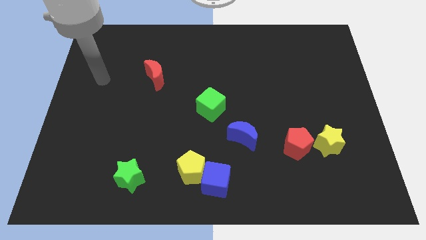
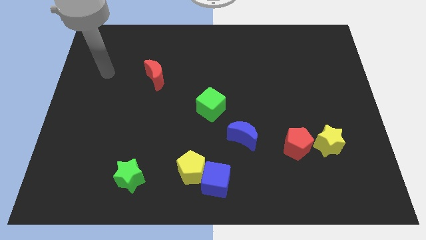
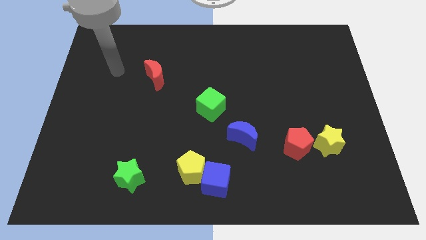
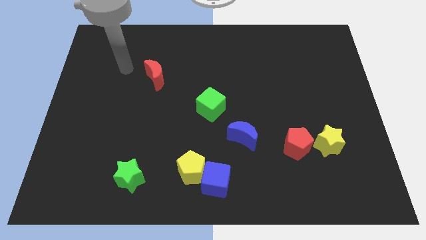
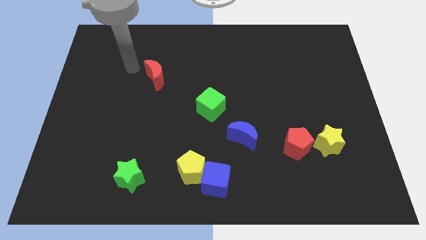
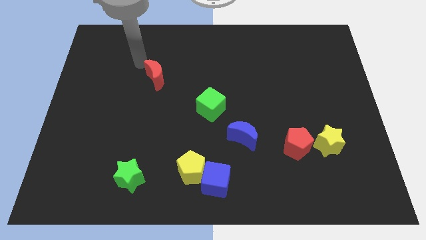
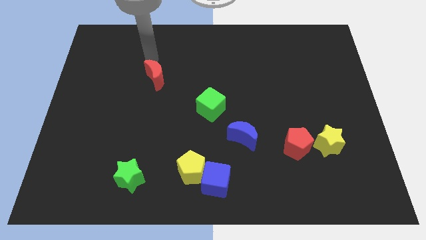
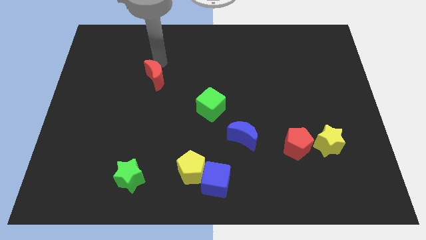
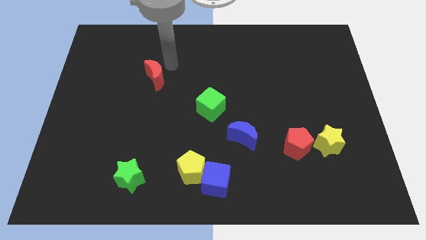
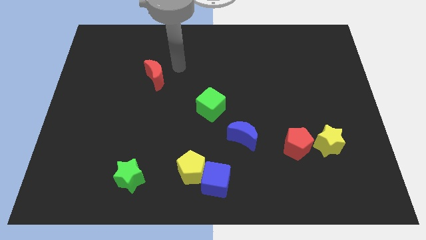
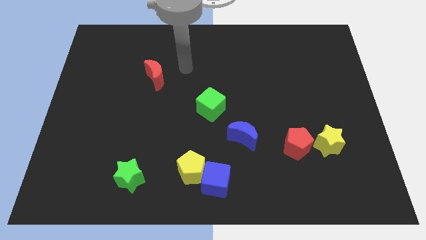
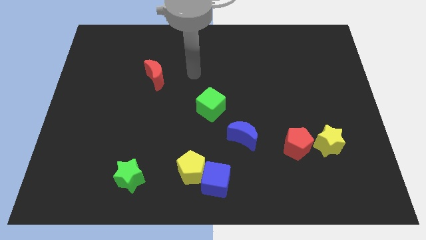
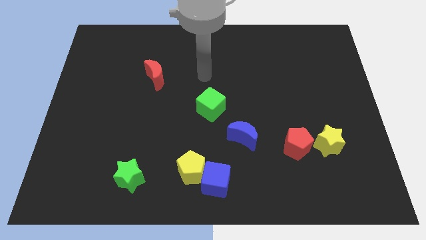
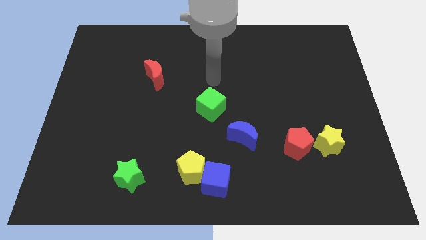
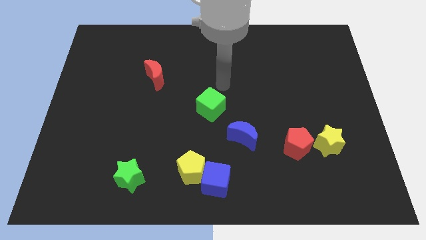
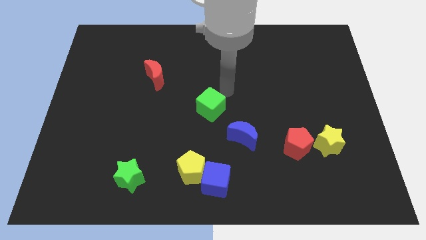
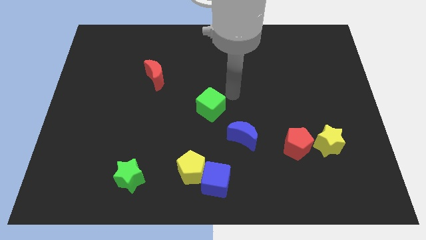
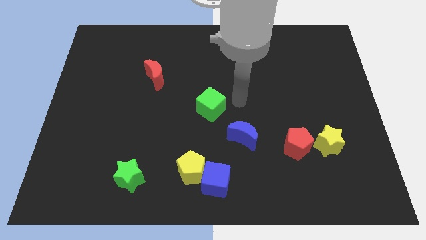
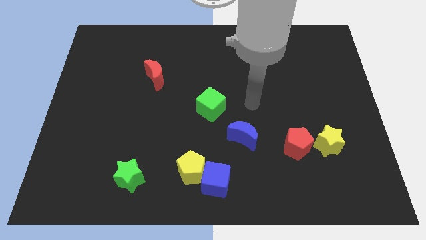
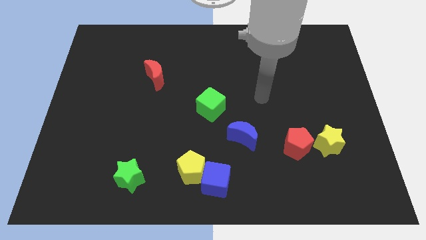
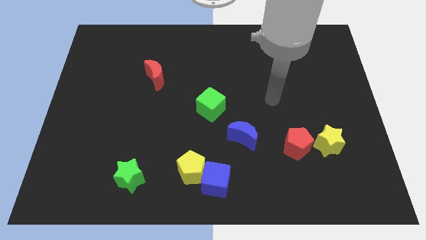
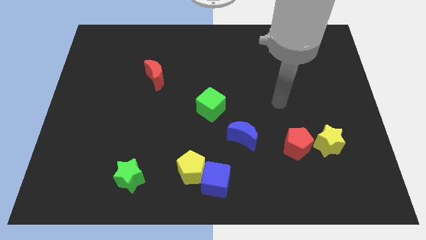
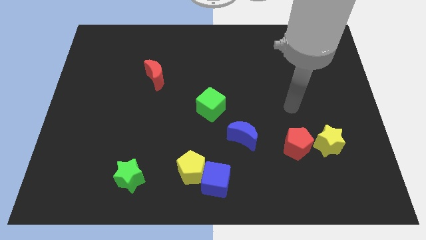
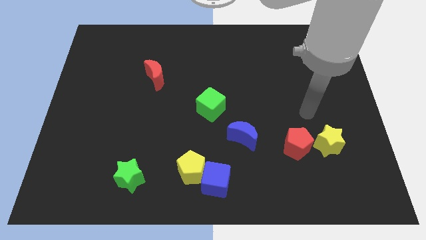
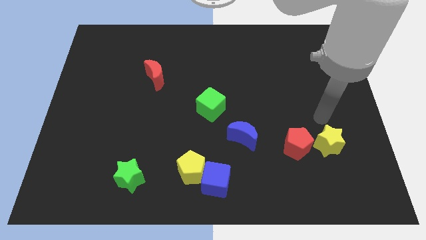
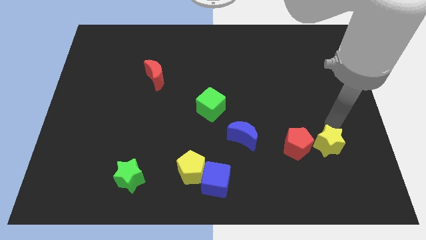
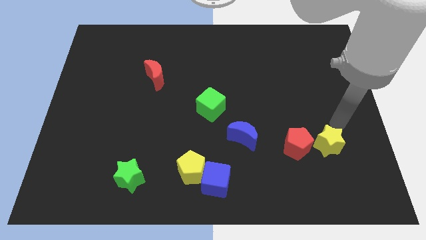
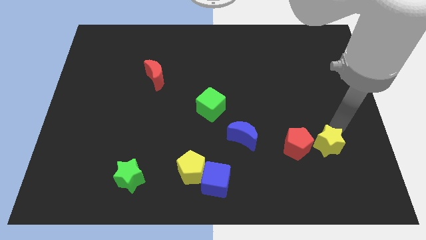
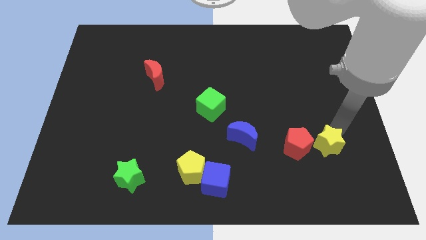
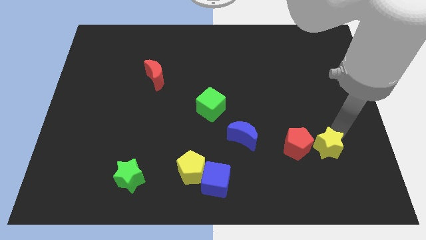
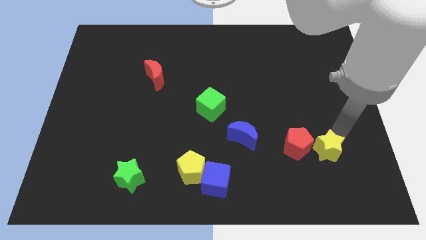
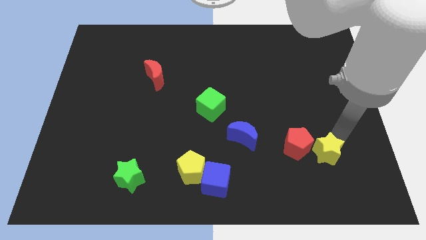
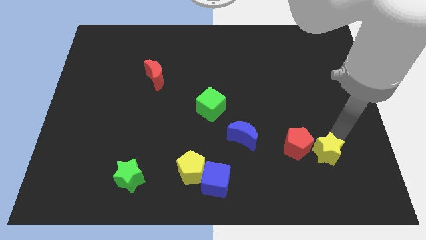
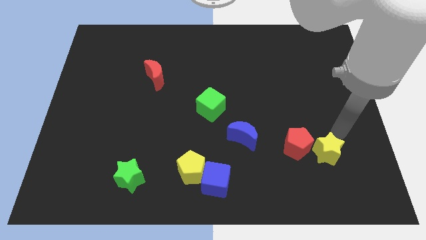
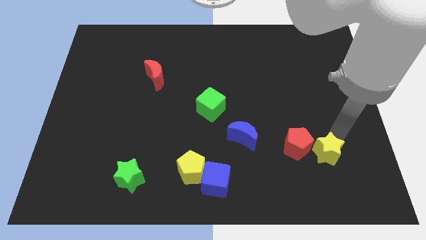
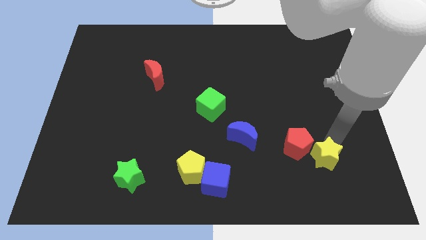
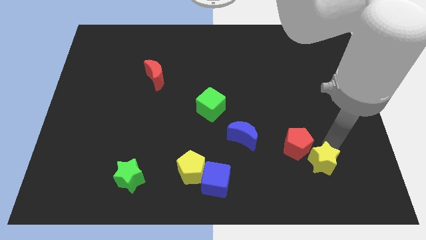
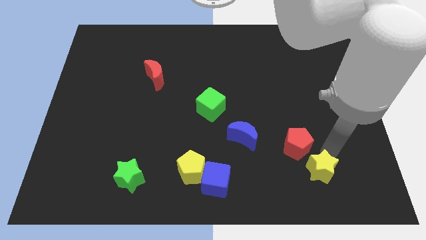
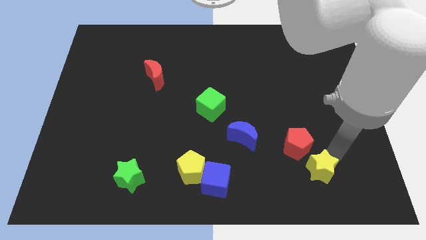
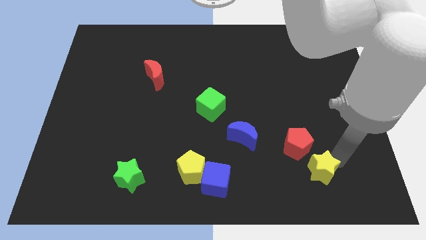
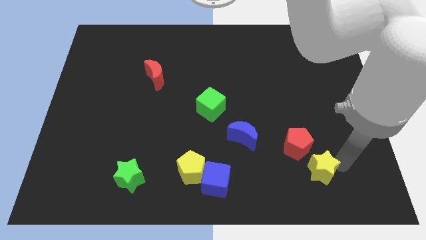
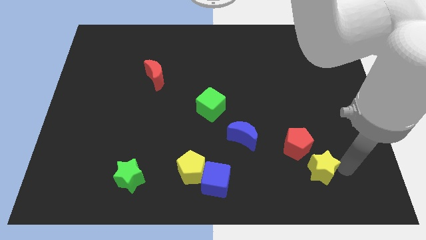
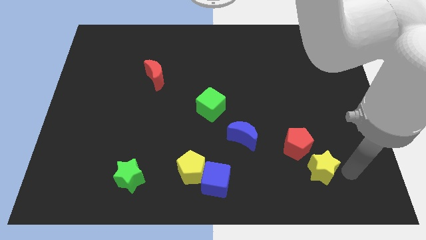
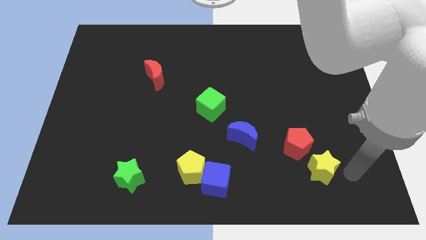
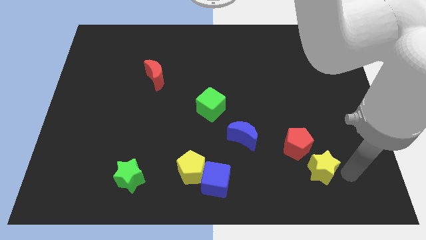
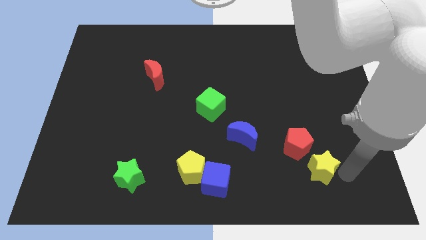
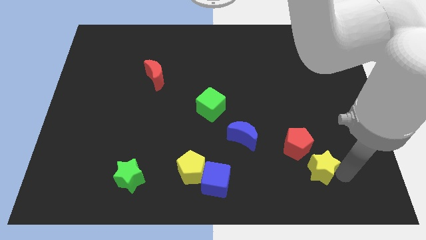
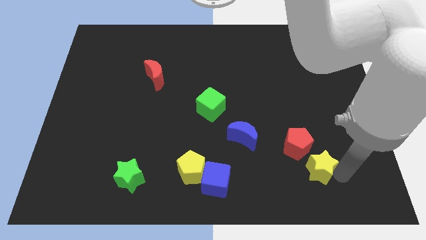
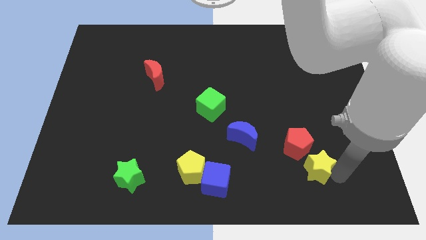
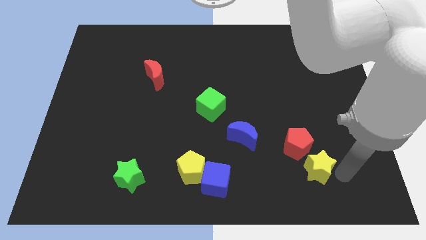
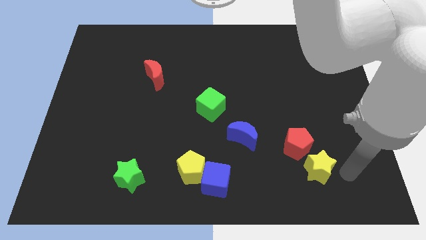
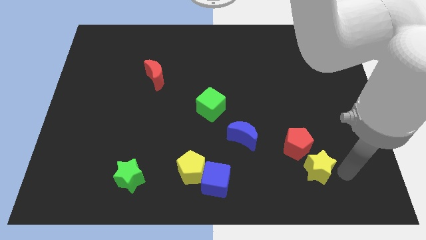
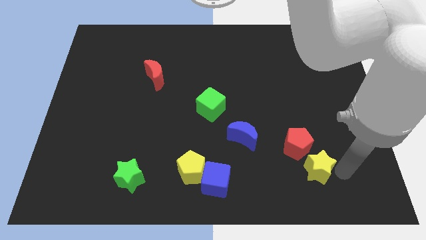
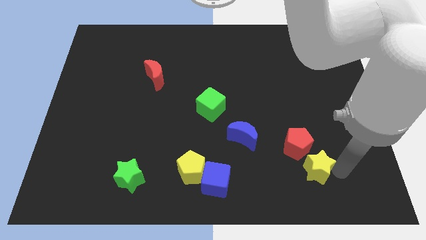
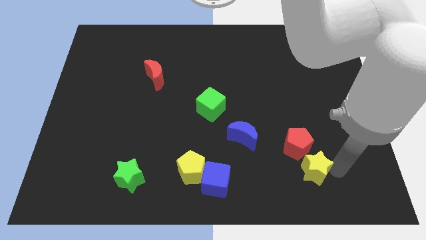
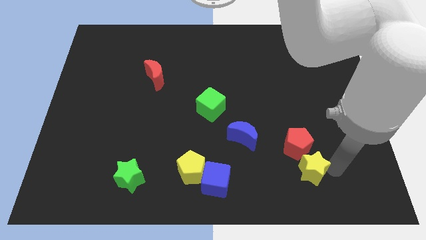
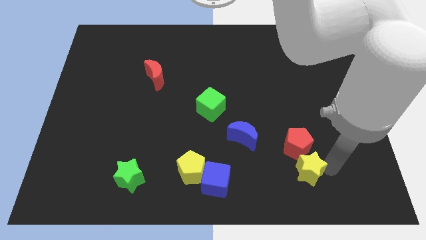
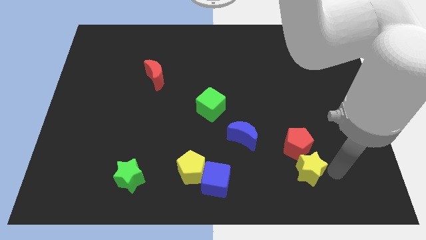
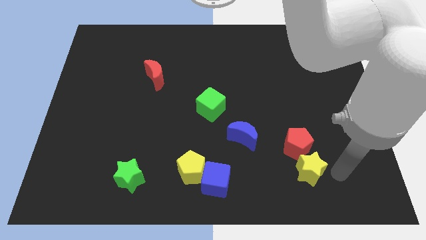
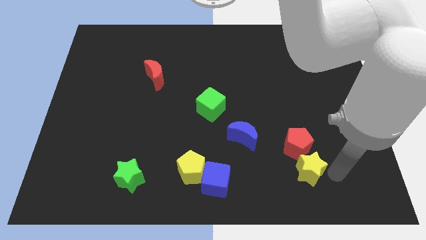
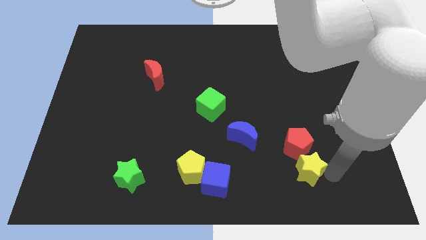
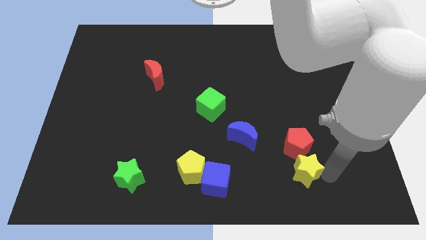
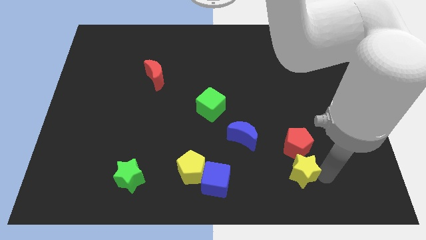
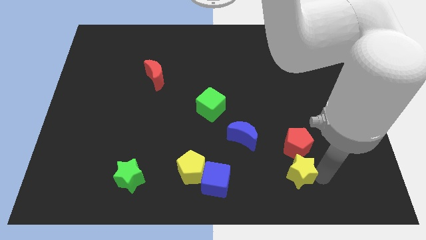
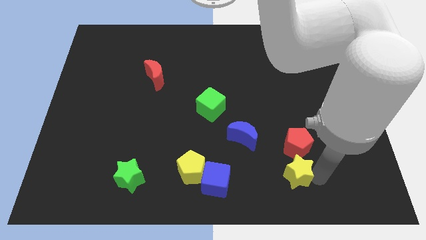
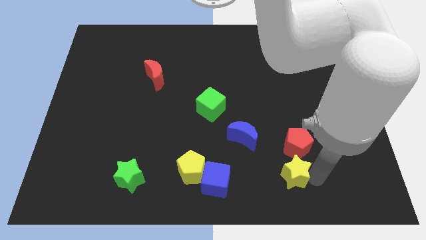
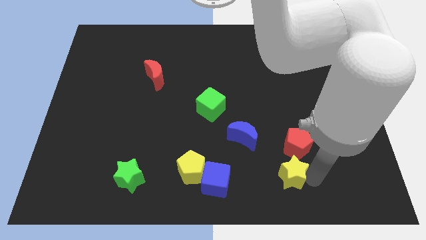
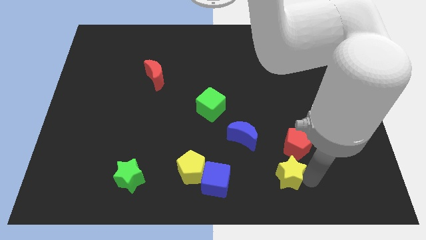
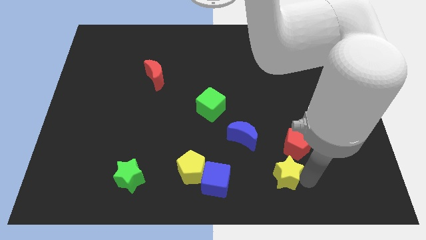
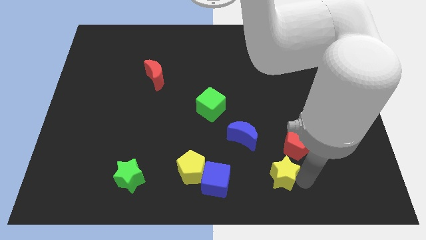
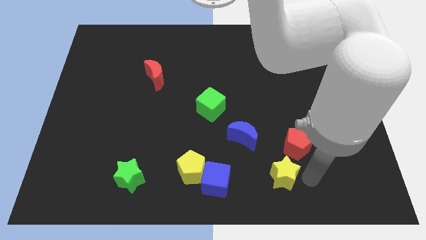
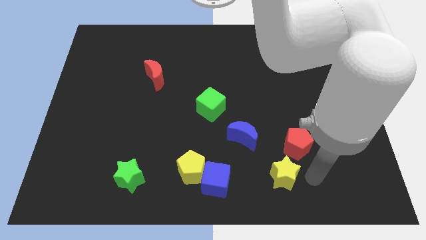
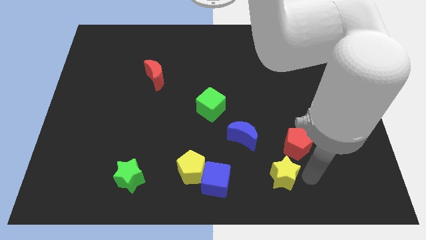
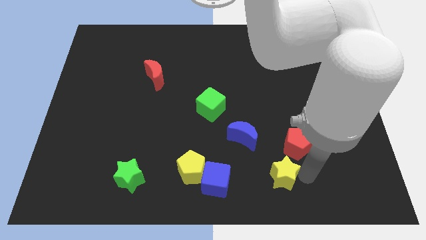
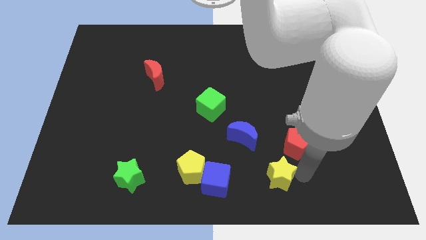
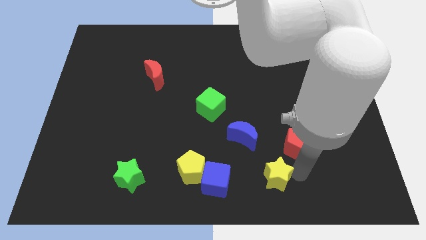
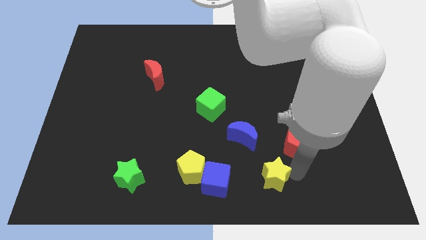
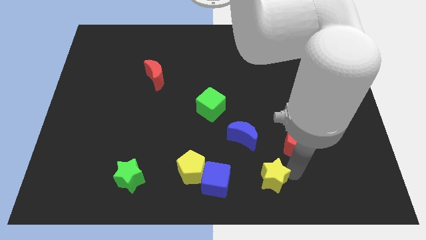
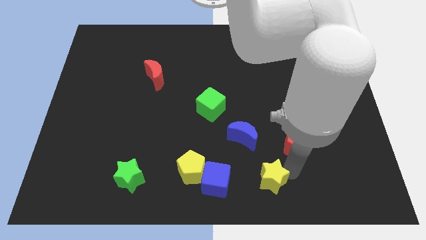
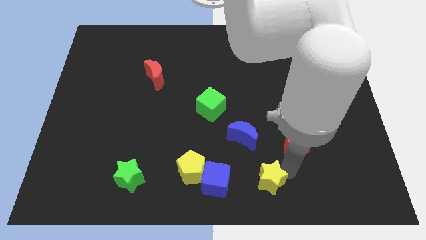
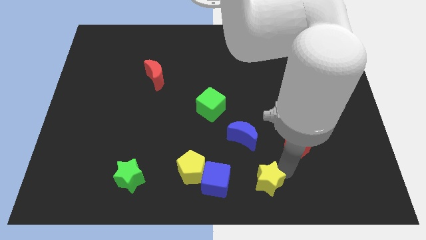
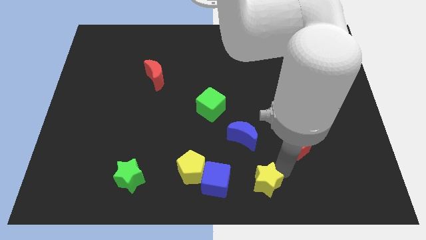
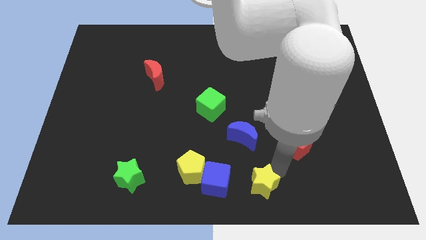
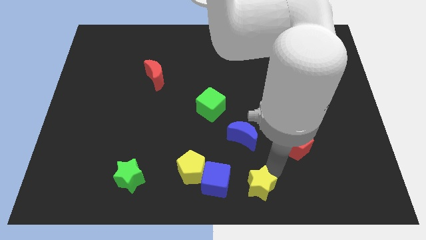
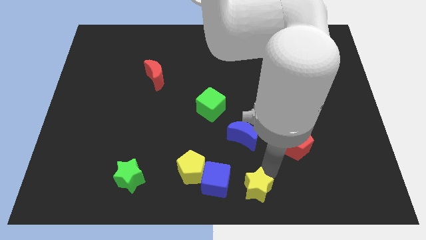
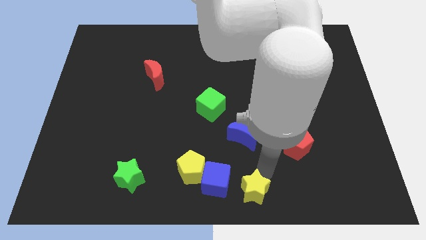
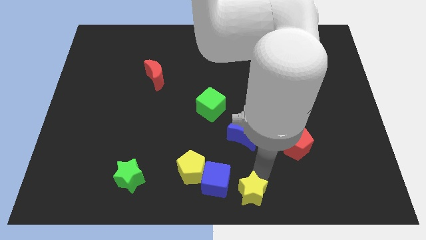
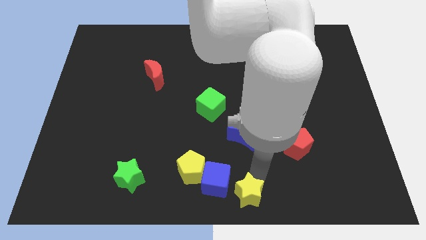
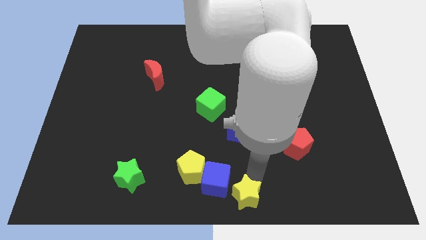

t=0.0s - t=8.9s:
move the yellow star to the blue cube
